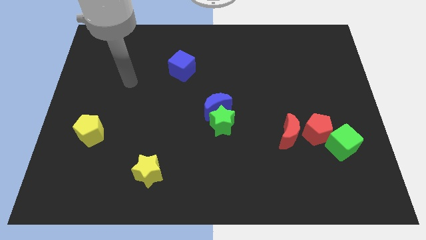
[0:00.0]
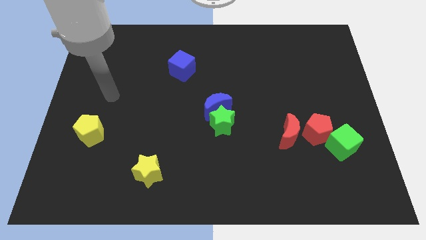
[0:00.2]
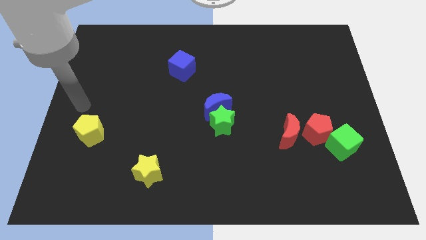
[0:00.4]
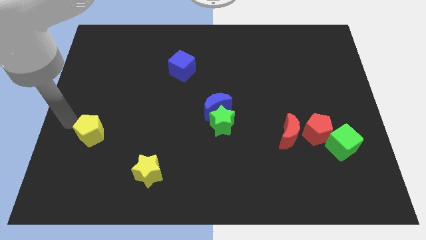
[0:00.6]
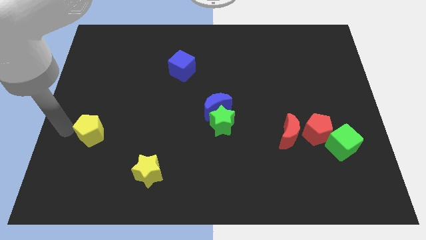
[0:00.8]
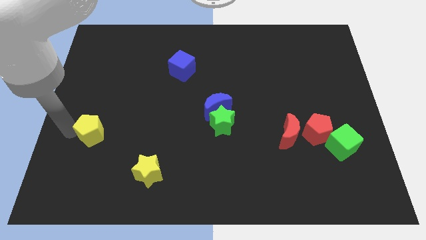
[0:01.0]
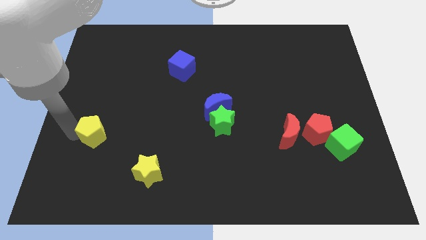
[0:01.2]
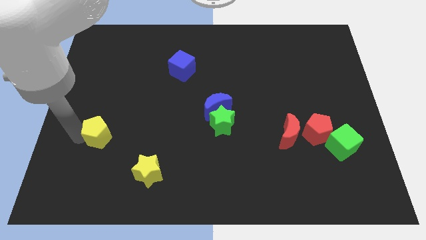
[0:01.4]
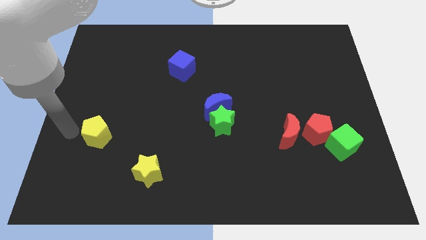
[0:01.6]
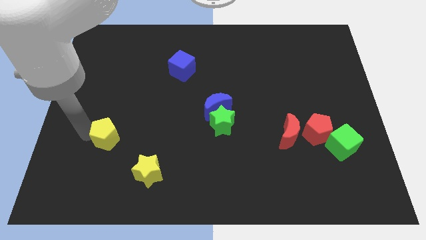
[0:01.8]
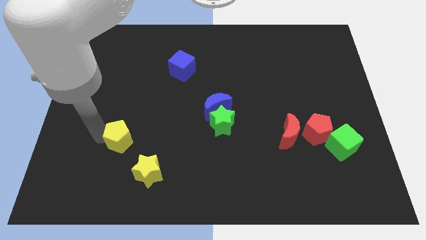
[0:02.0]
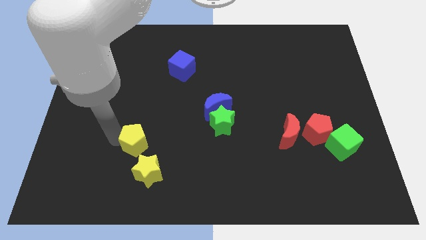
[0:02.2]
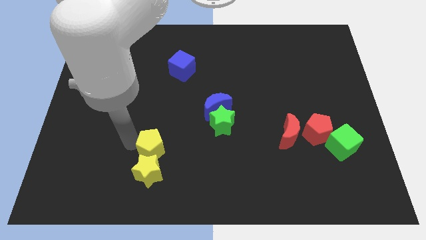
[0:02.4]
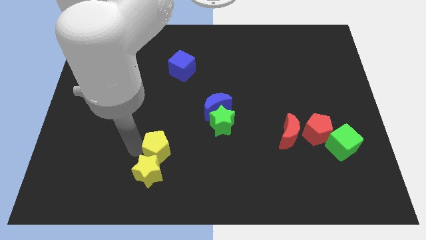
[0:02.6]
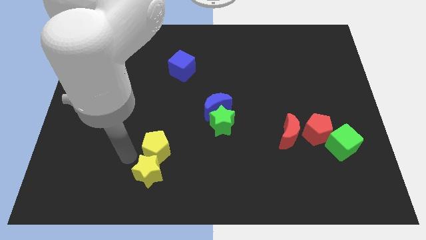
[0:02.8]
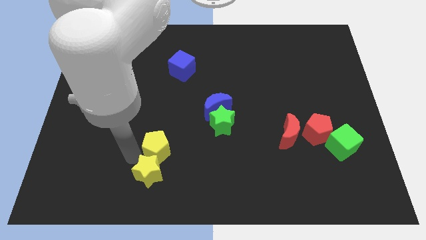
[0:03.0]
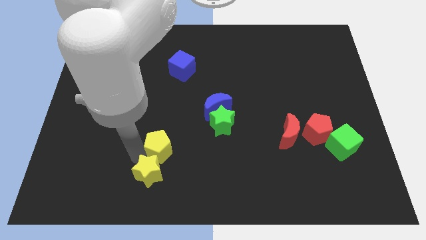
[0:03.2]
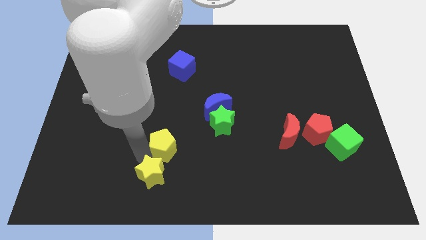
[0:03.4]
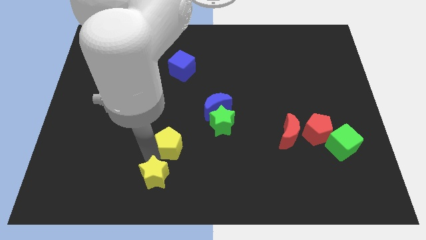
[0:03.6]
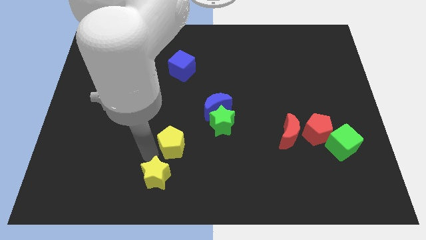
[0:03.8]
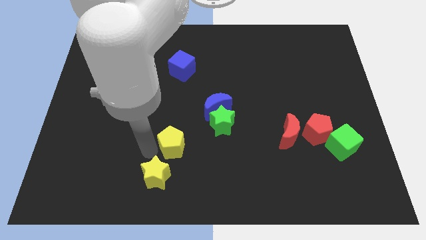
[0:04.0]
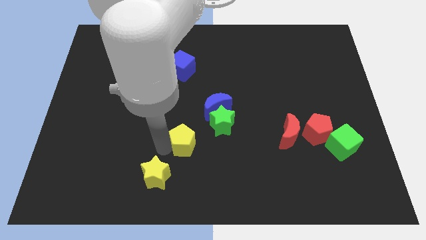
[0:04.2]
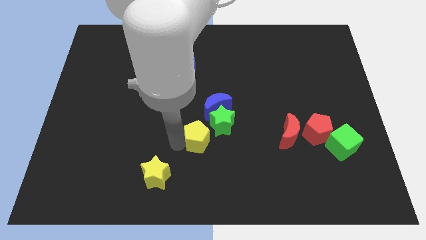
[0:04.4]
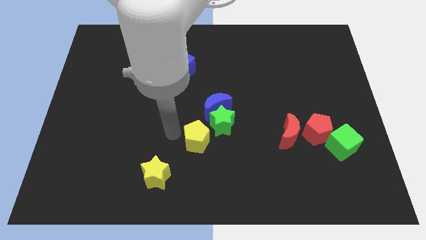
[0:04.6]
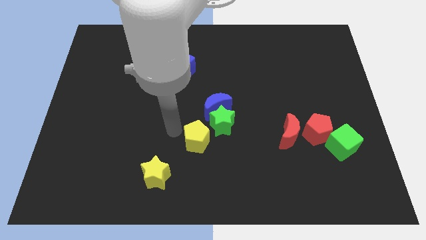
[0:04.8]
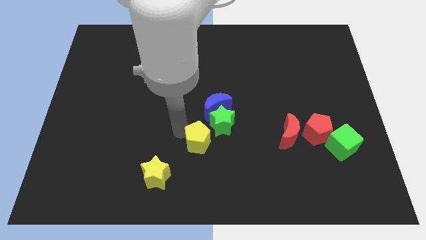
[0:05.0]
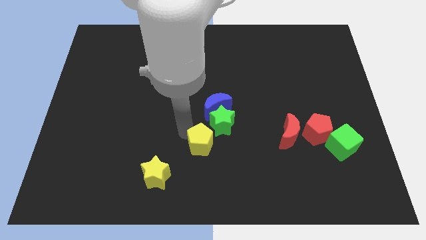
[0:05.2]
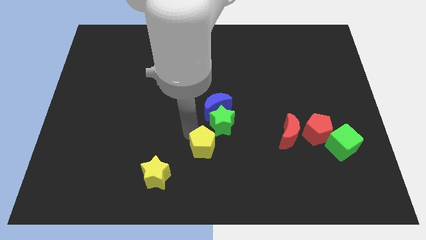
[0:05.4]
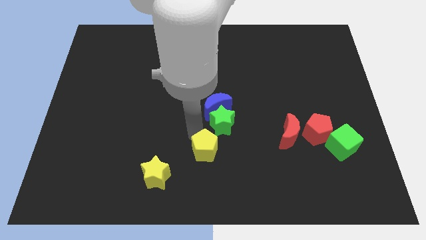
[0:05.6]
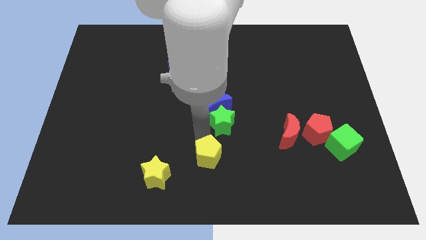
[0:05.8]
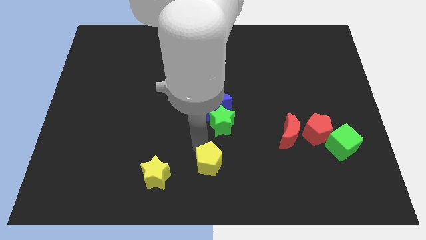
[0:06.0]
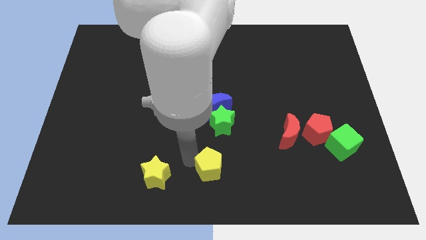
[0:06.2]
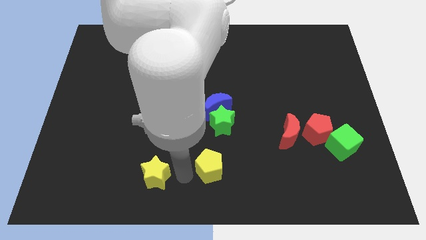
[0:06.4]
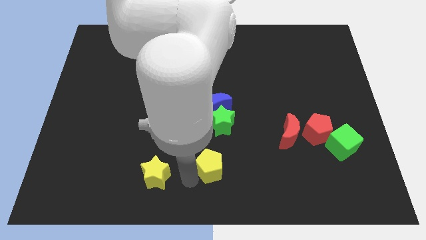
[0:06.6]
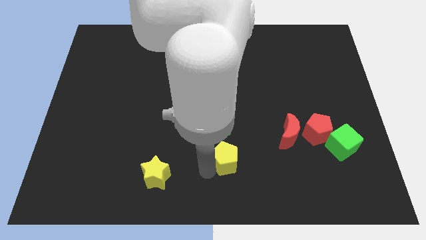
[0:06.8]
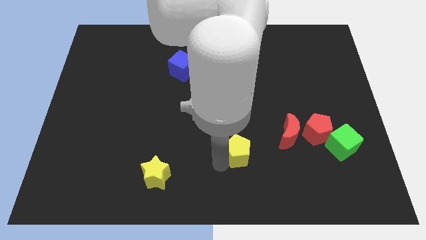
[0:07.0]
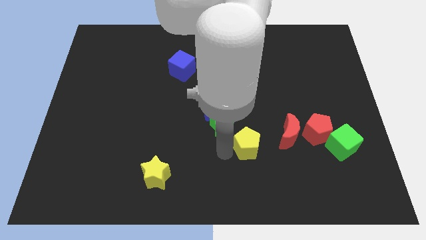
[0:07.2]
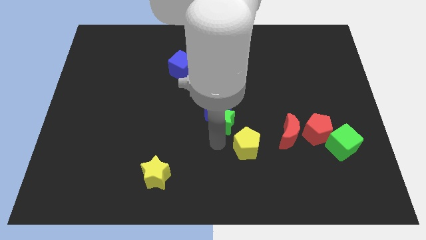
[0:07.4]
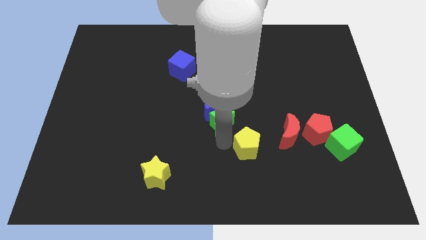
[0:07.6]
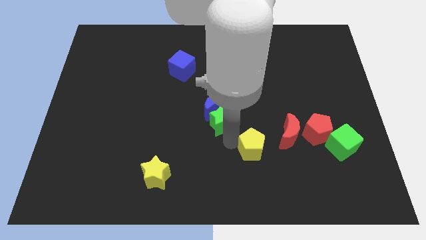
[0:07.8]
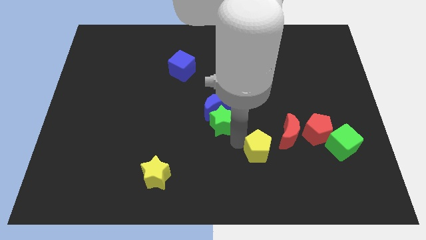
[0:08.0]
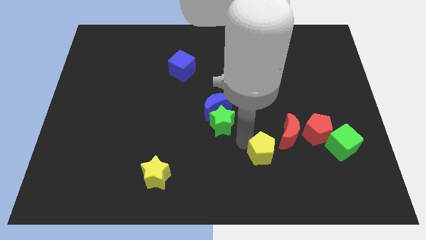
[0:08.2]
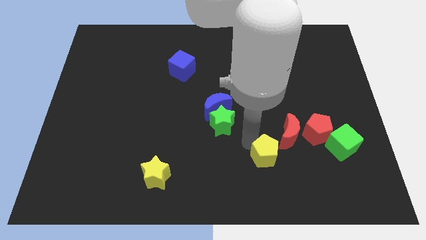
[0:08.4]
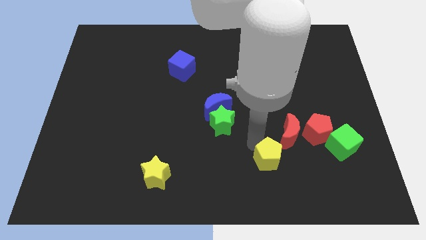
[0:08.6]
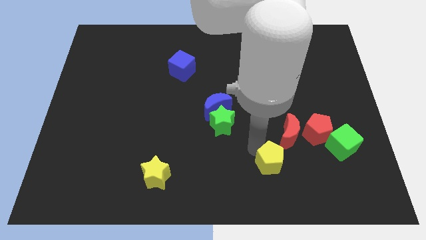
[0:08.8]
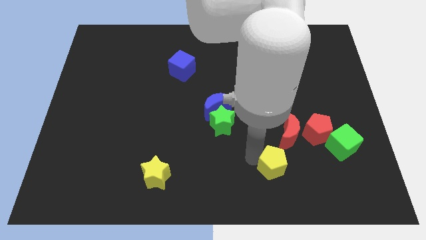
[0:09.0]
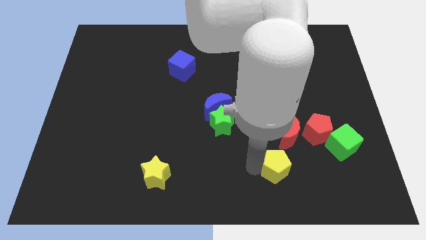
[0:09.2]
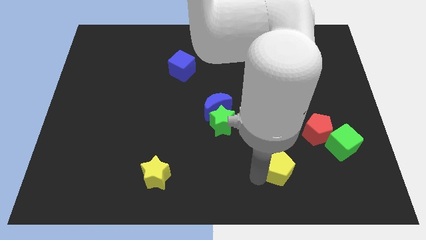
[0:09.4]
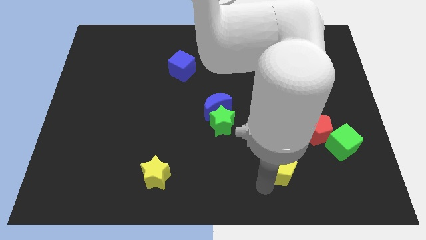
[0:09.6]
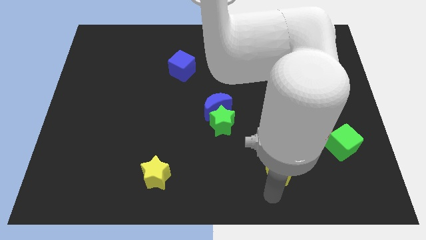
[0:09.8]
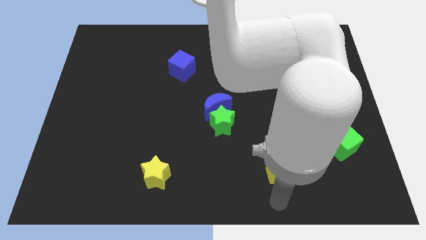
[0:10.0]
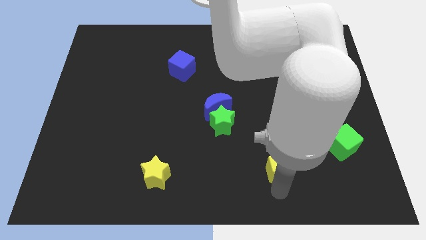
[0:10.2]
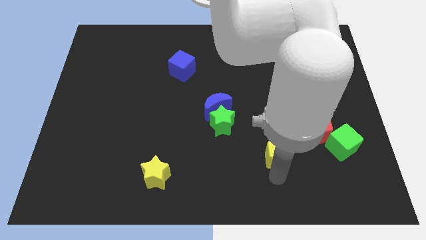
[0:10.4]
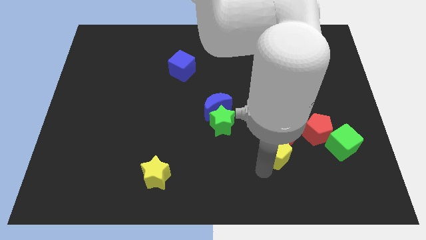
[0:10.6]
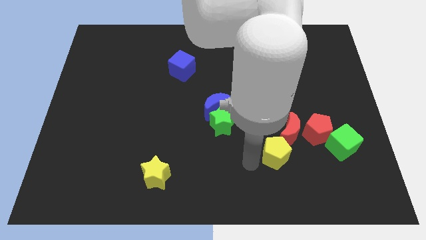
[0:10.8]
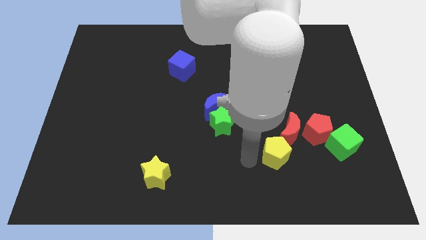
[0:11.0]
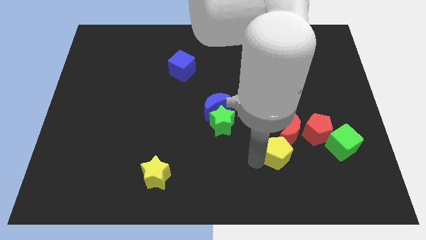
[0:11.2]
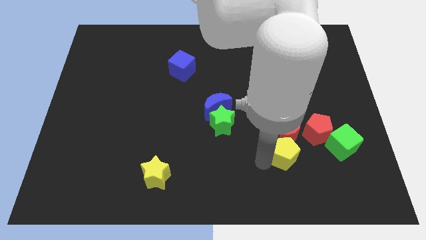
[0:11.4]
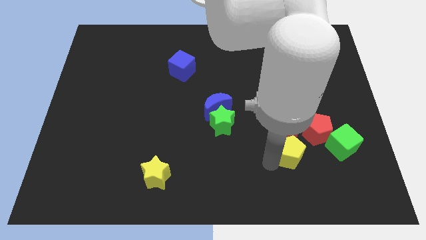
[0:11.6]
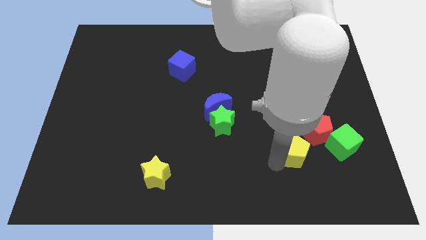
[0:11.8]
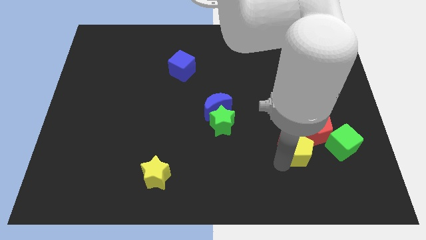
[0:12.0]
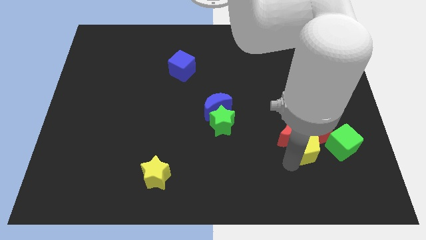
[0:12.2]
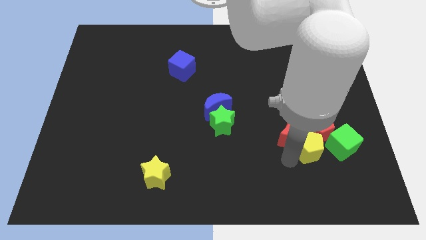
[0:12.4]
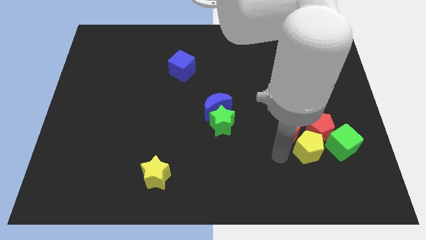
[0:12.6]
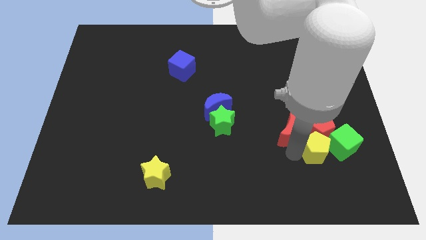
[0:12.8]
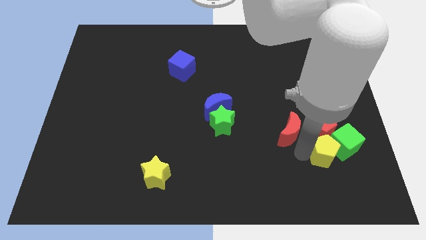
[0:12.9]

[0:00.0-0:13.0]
slide the yellow pentagon to the green cube

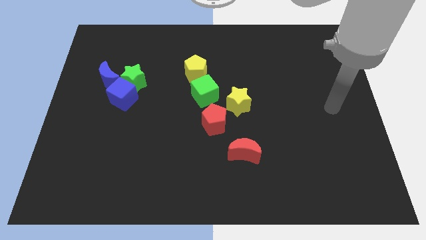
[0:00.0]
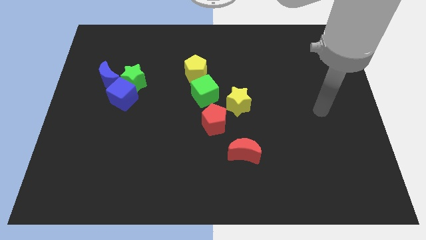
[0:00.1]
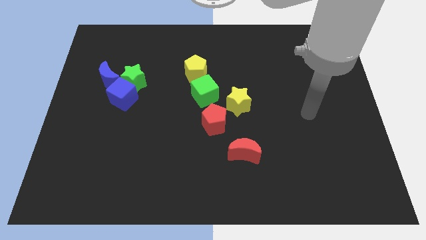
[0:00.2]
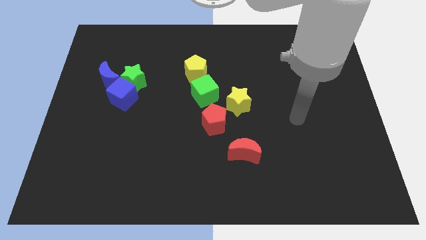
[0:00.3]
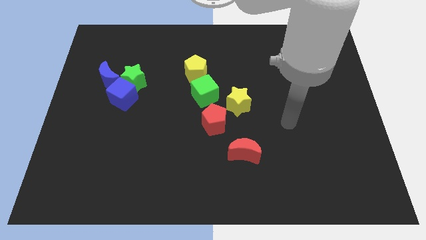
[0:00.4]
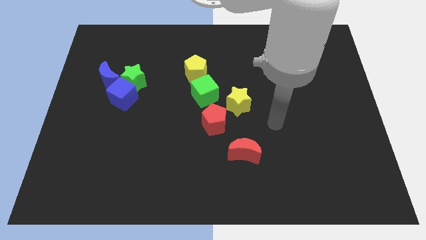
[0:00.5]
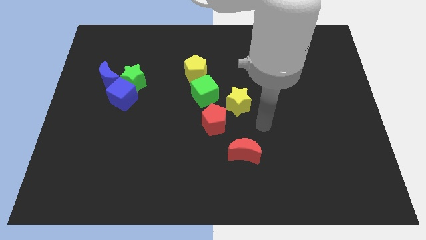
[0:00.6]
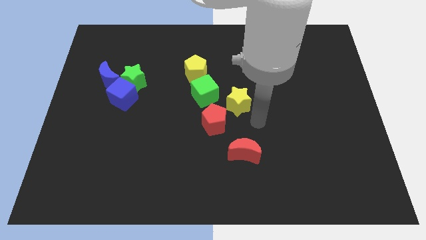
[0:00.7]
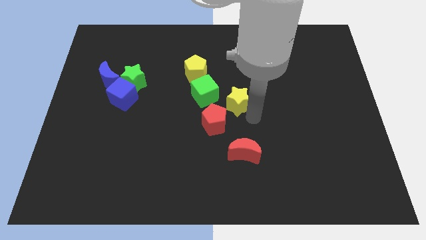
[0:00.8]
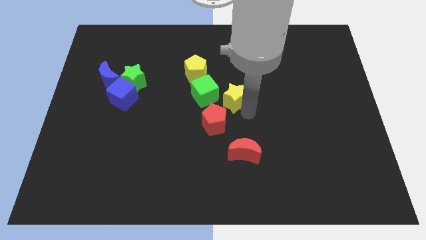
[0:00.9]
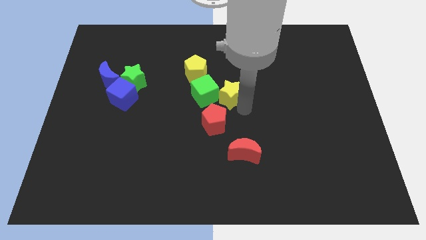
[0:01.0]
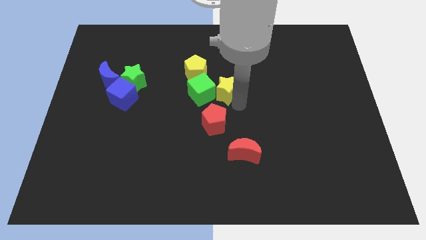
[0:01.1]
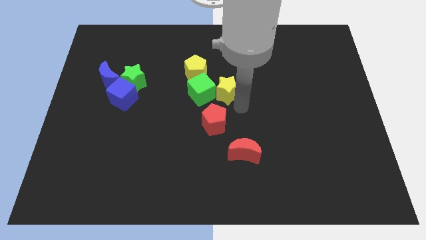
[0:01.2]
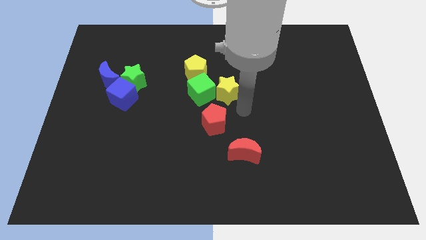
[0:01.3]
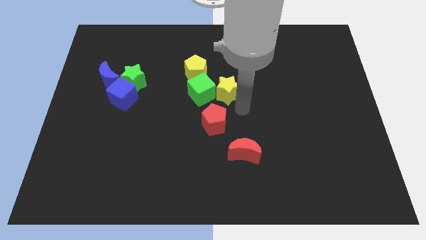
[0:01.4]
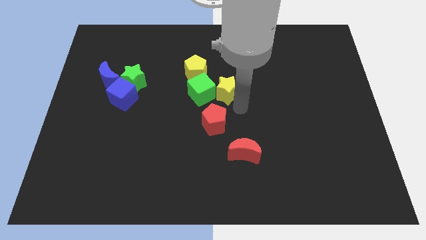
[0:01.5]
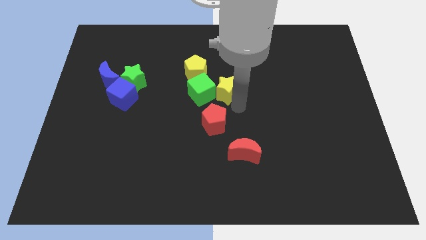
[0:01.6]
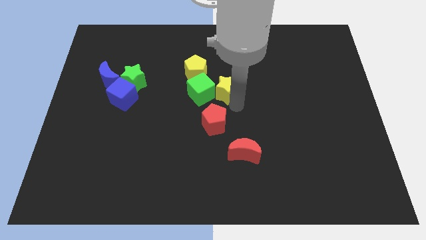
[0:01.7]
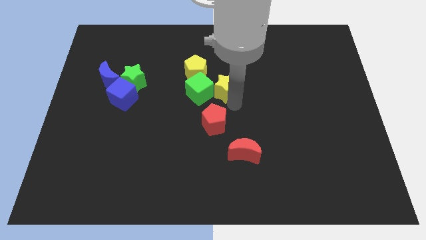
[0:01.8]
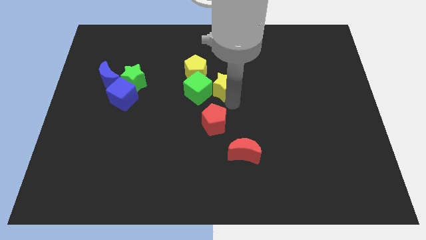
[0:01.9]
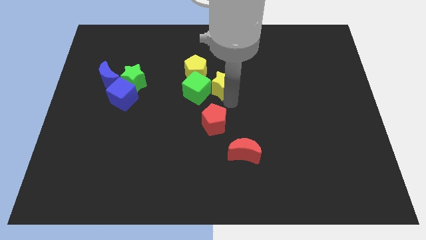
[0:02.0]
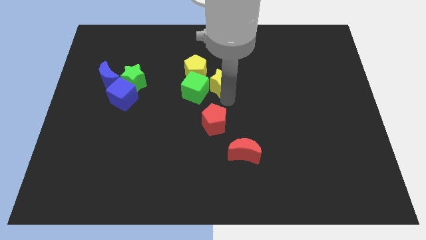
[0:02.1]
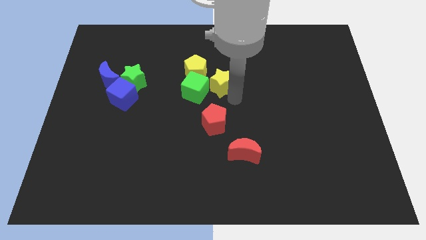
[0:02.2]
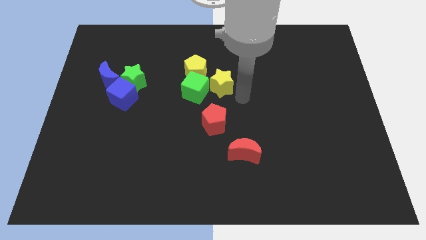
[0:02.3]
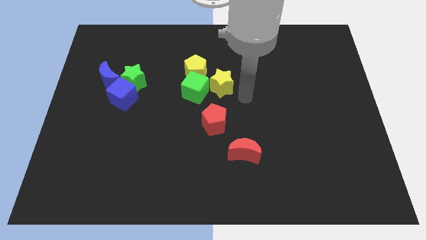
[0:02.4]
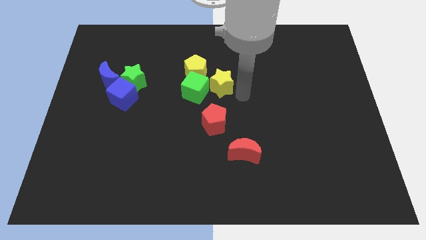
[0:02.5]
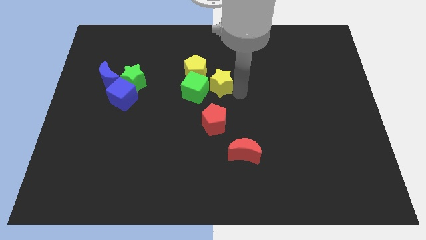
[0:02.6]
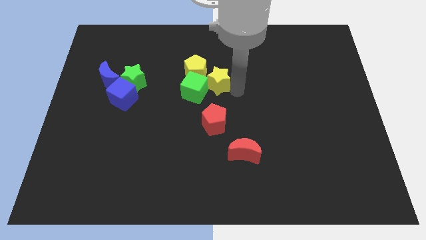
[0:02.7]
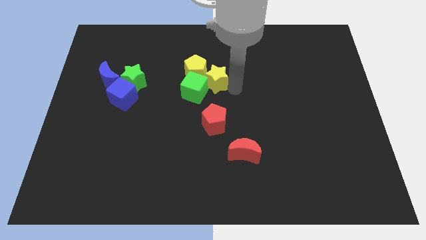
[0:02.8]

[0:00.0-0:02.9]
push the yellow star to the yellow pentagon
